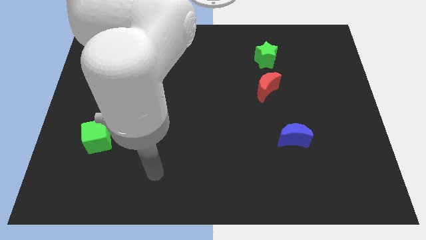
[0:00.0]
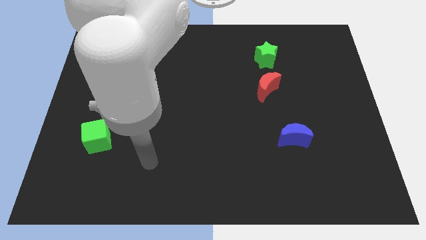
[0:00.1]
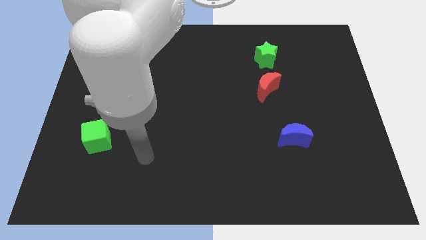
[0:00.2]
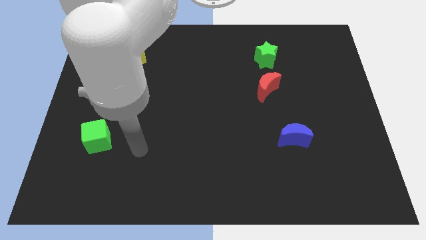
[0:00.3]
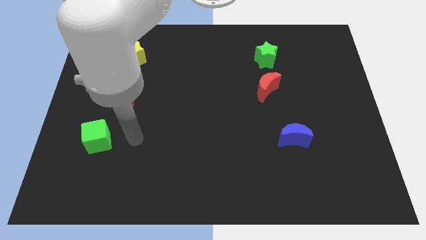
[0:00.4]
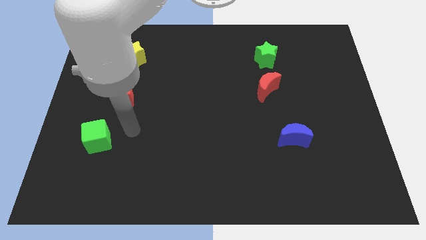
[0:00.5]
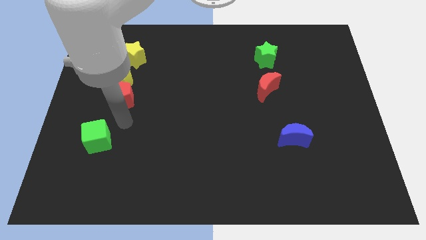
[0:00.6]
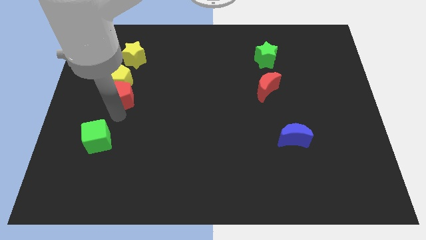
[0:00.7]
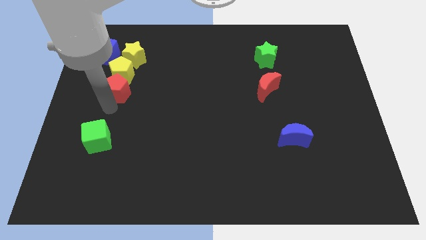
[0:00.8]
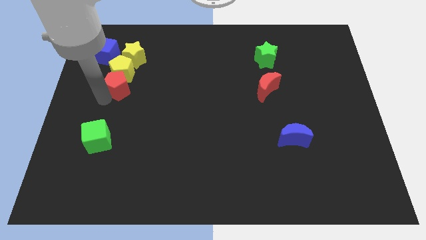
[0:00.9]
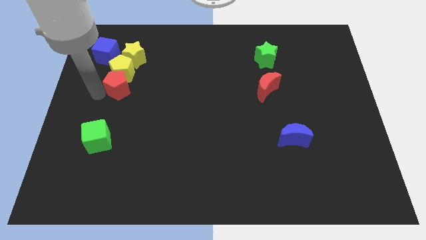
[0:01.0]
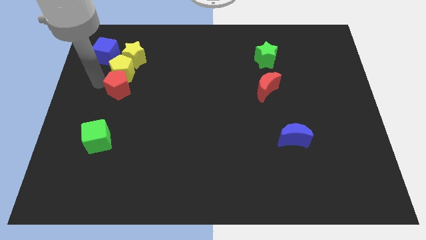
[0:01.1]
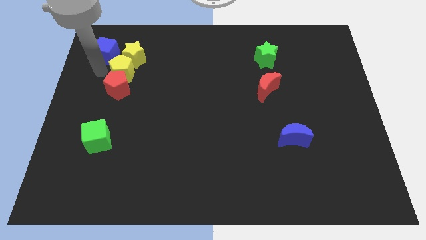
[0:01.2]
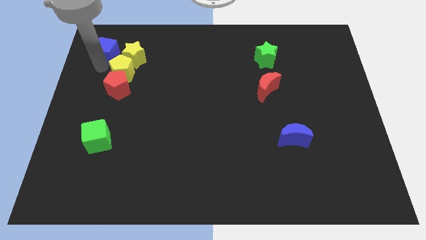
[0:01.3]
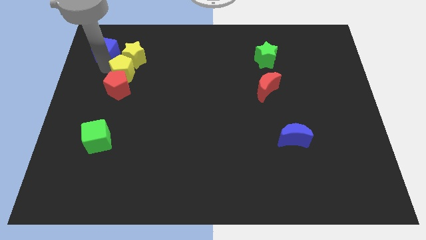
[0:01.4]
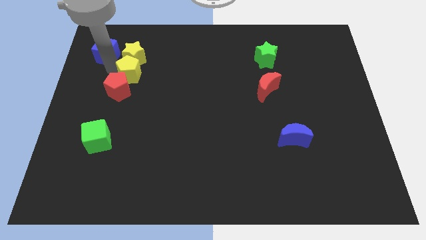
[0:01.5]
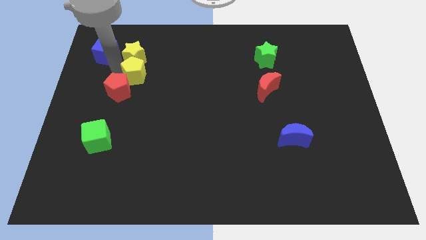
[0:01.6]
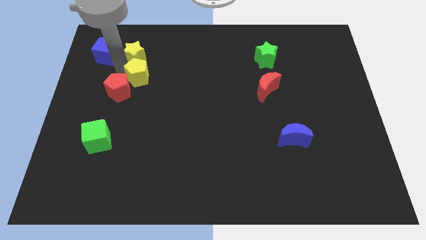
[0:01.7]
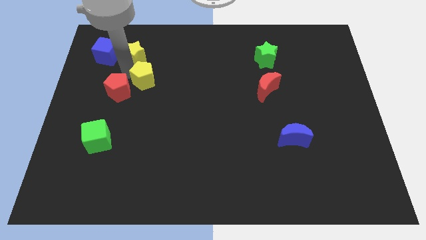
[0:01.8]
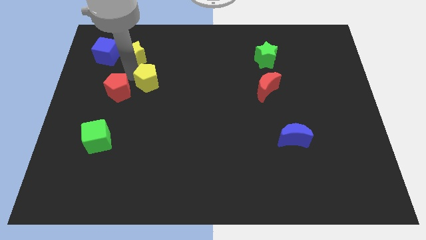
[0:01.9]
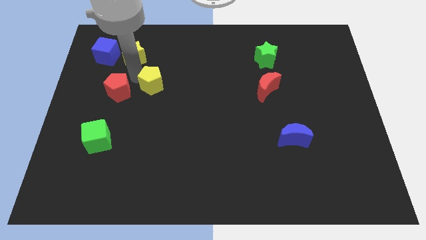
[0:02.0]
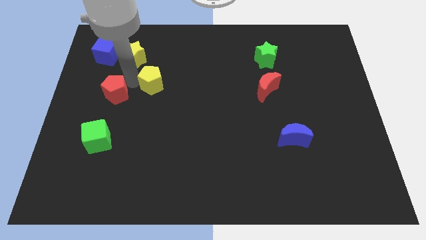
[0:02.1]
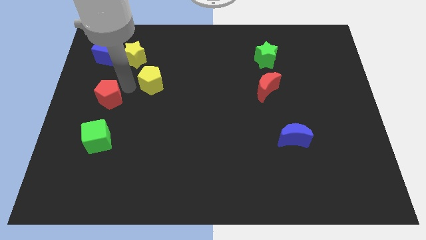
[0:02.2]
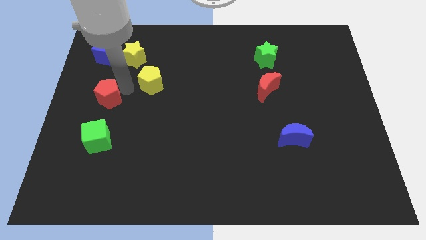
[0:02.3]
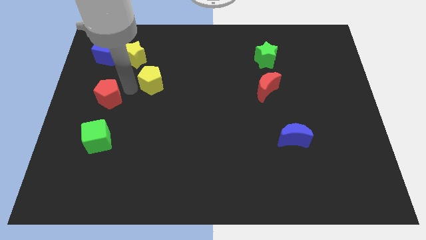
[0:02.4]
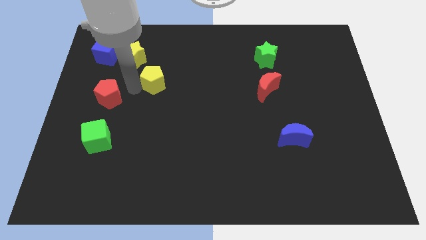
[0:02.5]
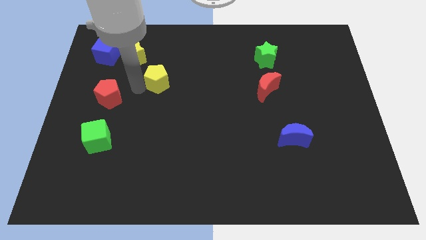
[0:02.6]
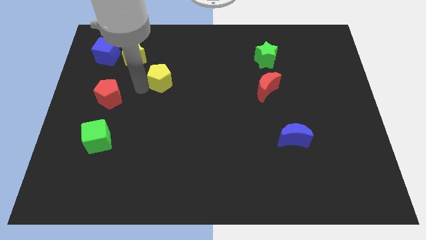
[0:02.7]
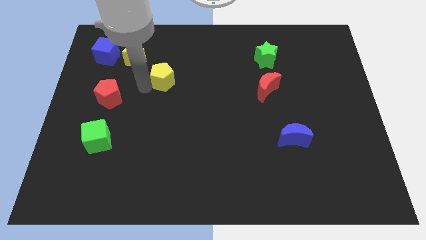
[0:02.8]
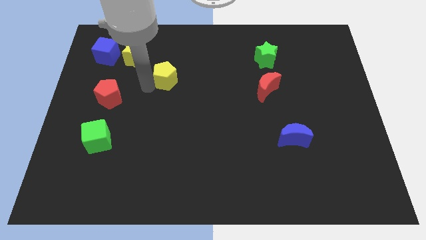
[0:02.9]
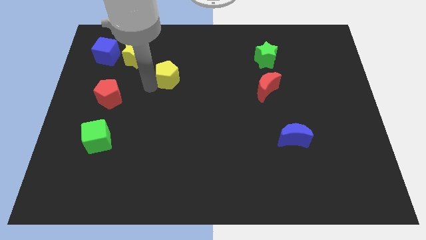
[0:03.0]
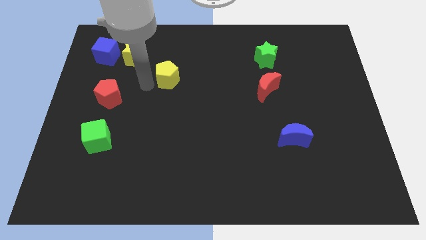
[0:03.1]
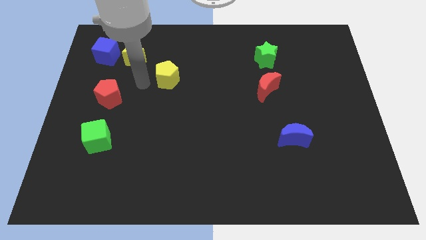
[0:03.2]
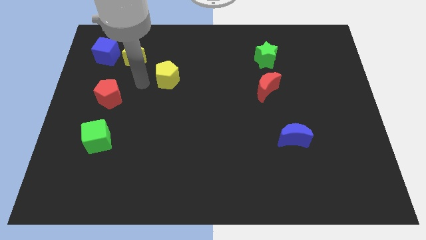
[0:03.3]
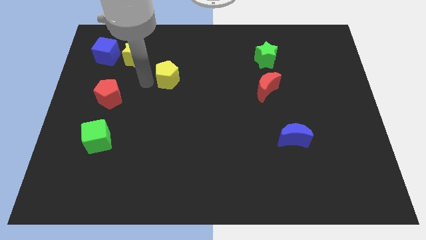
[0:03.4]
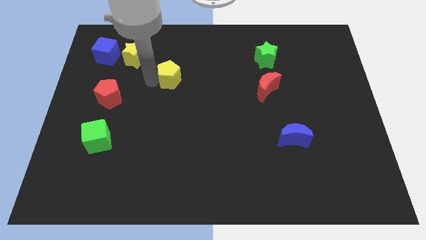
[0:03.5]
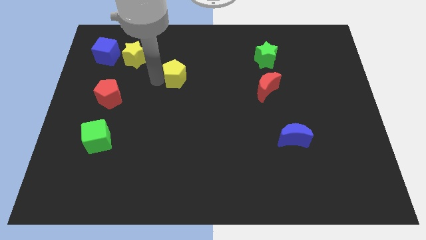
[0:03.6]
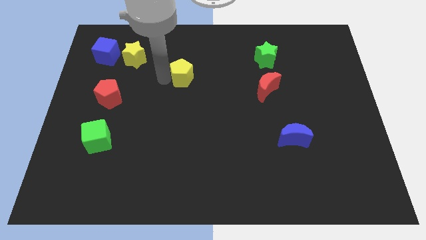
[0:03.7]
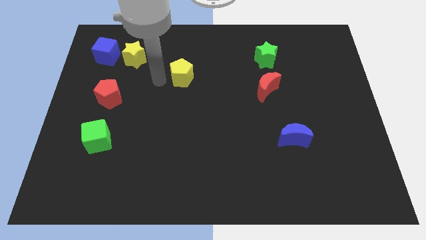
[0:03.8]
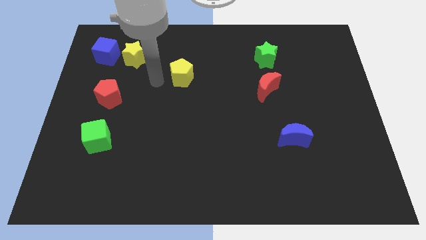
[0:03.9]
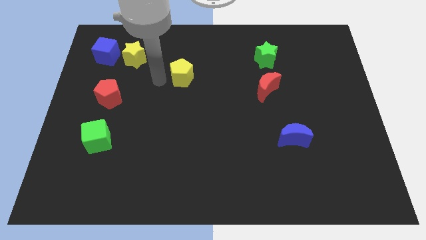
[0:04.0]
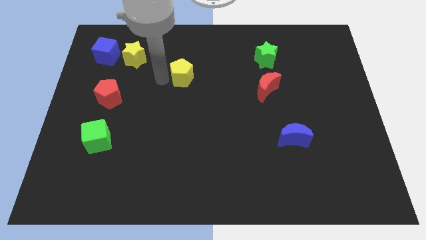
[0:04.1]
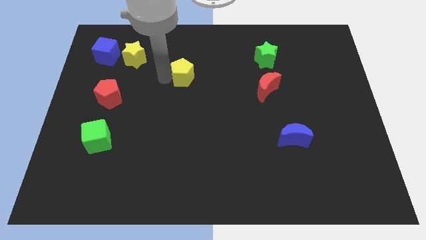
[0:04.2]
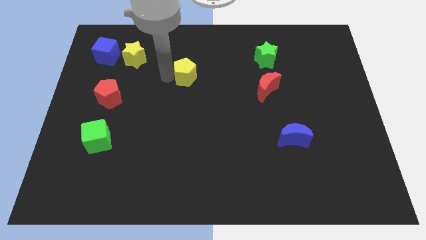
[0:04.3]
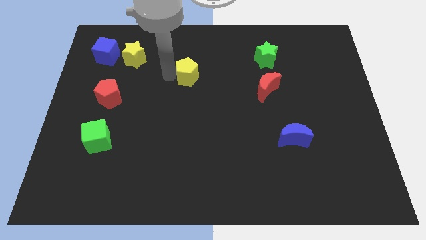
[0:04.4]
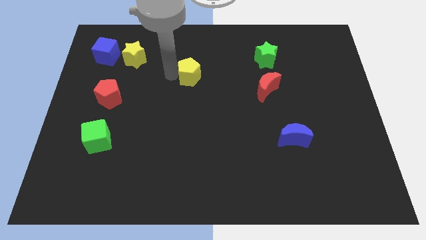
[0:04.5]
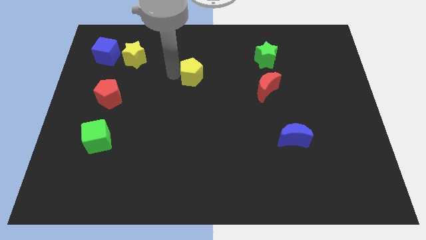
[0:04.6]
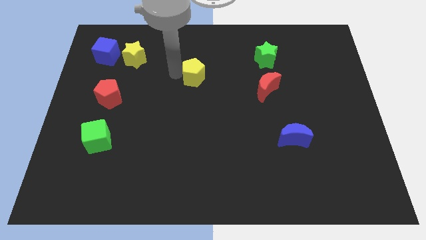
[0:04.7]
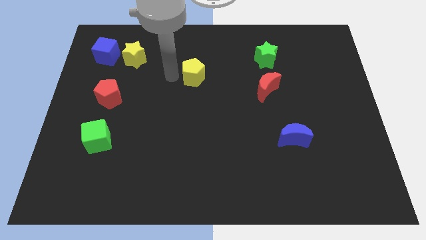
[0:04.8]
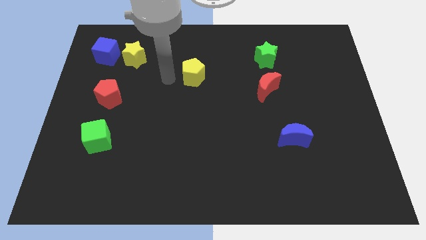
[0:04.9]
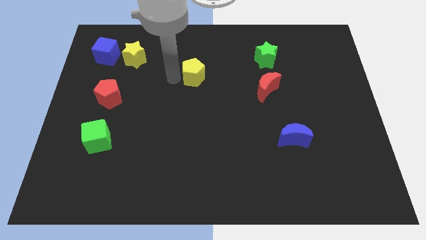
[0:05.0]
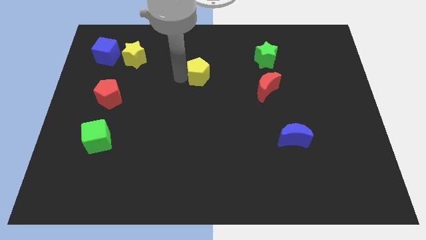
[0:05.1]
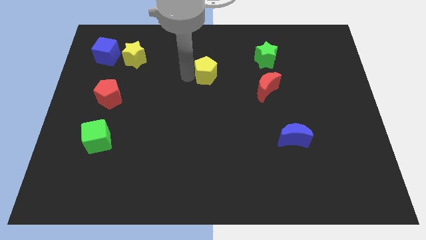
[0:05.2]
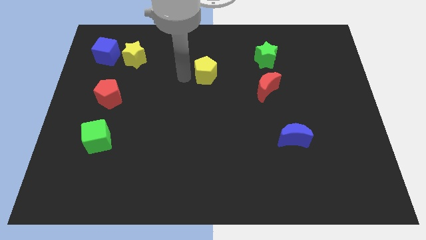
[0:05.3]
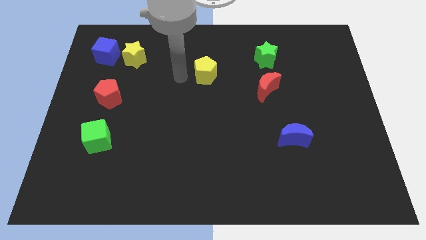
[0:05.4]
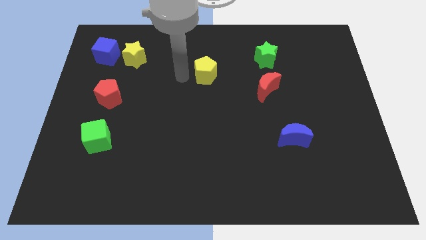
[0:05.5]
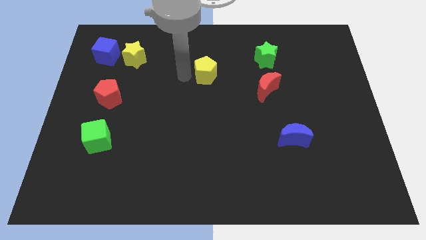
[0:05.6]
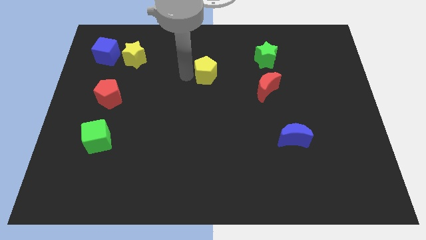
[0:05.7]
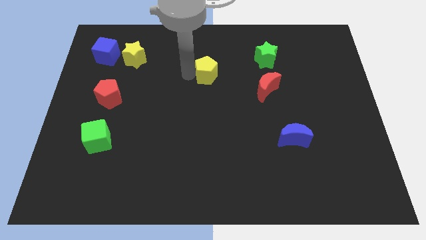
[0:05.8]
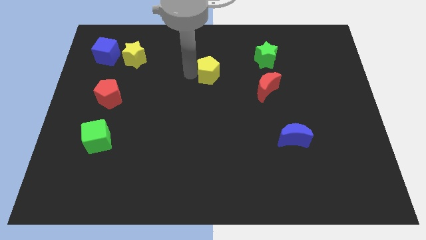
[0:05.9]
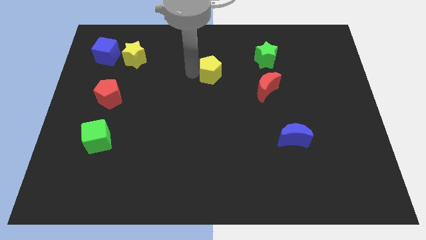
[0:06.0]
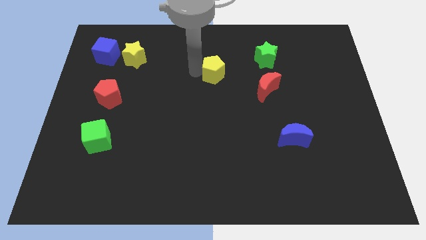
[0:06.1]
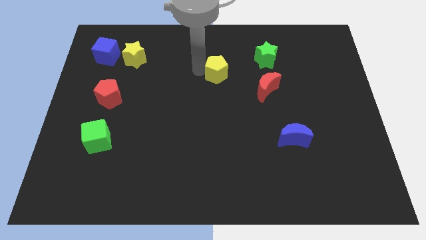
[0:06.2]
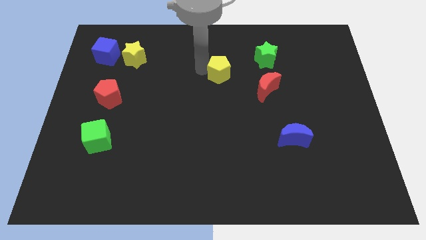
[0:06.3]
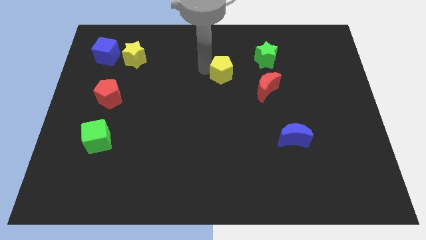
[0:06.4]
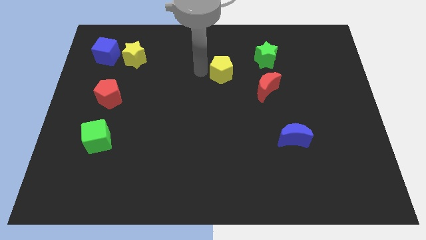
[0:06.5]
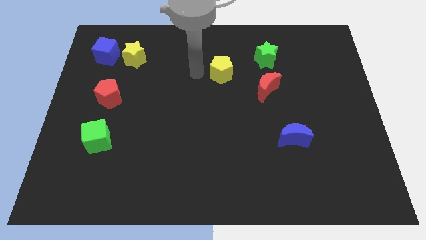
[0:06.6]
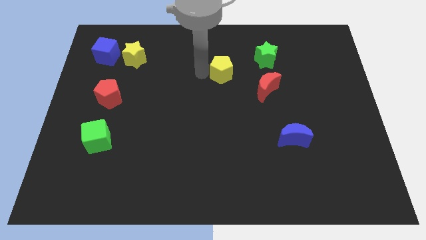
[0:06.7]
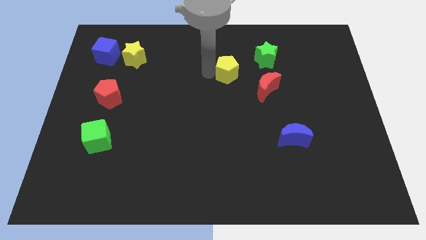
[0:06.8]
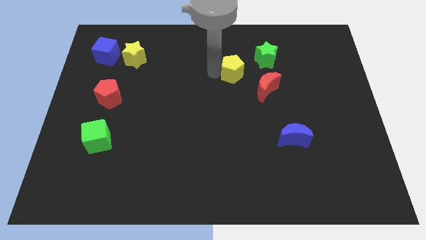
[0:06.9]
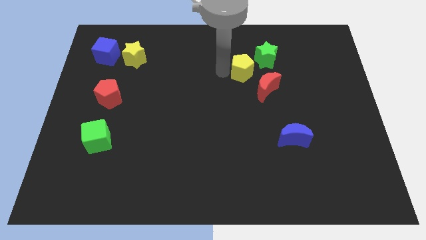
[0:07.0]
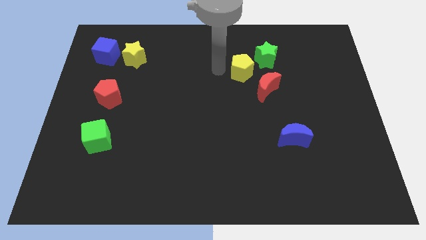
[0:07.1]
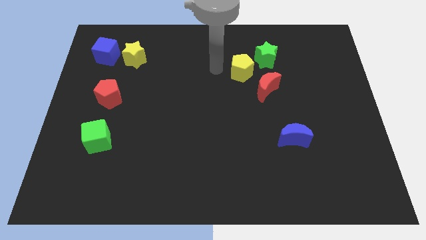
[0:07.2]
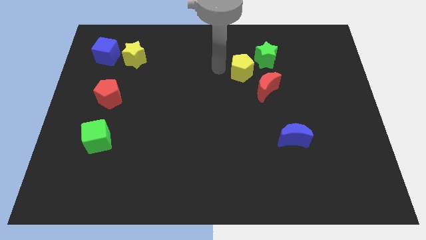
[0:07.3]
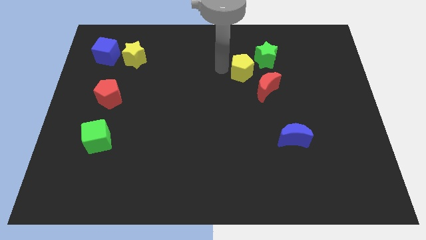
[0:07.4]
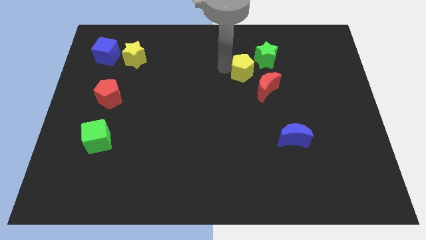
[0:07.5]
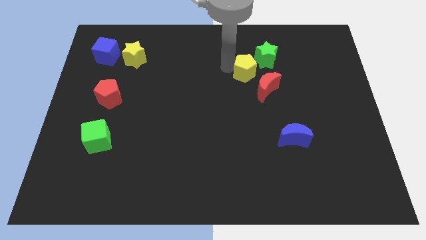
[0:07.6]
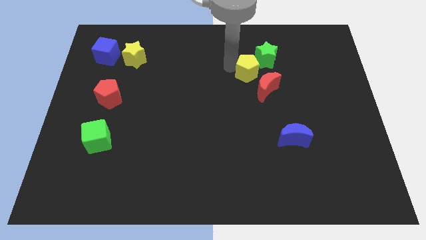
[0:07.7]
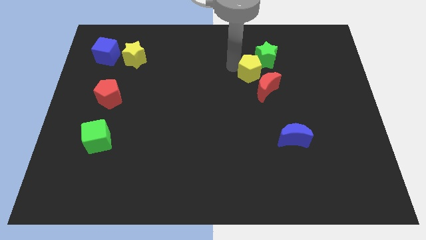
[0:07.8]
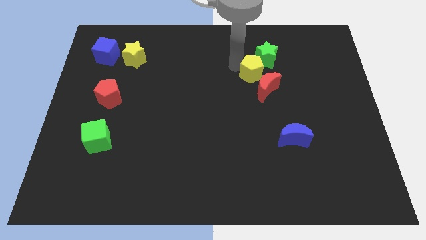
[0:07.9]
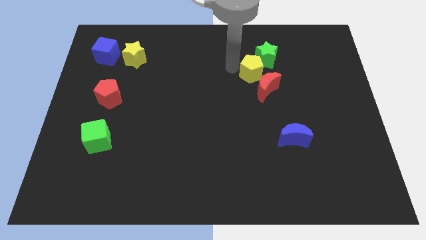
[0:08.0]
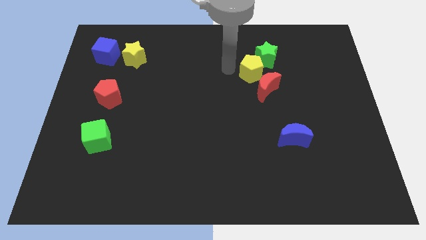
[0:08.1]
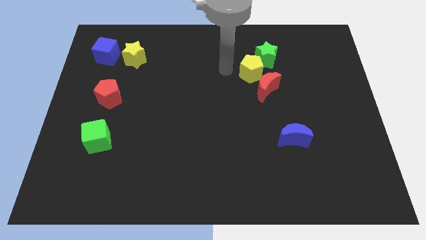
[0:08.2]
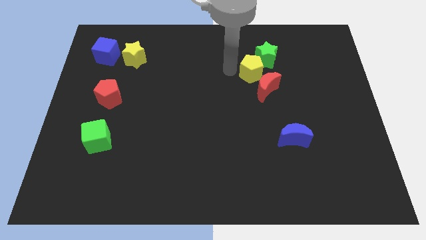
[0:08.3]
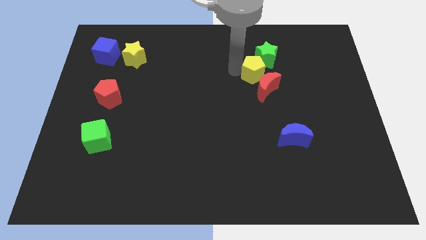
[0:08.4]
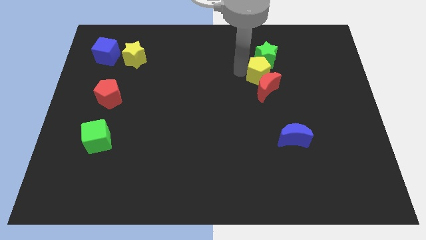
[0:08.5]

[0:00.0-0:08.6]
put the yellow pentagon diagonally up and to the right of the red moon
